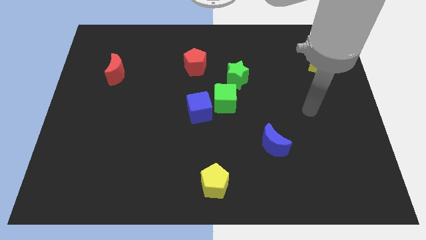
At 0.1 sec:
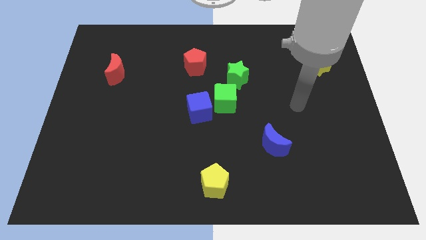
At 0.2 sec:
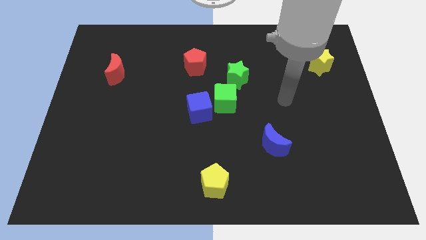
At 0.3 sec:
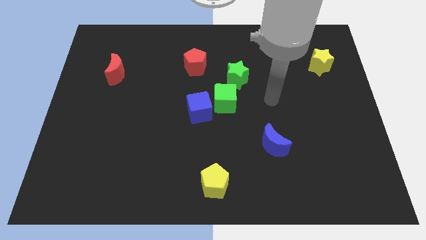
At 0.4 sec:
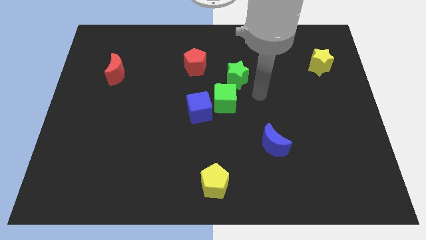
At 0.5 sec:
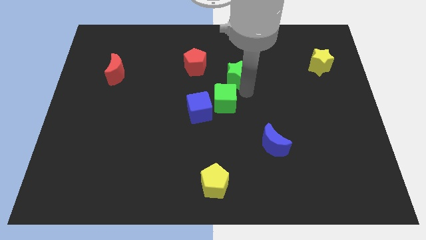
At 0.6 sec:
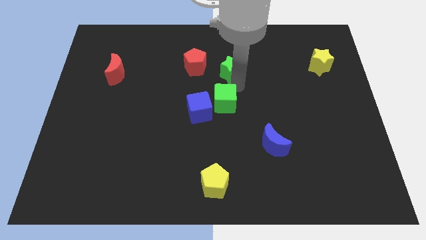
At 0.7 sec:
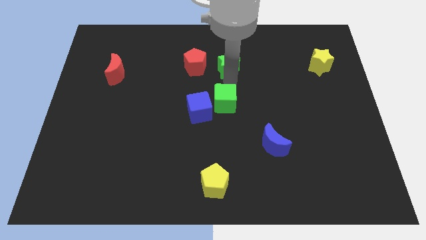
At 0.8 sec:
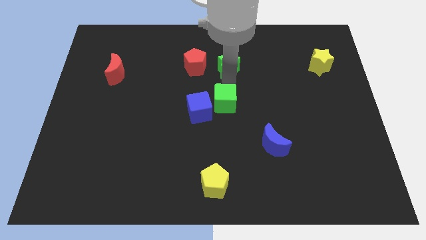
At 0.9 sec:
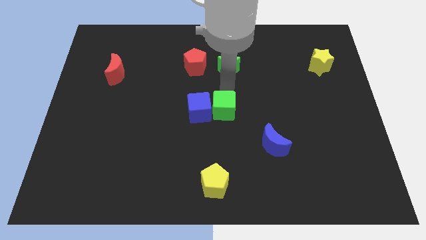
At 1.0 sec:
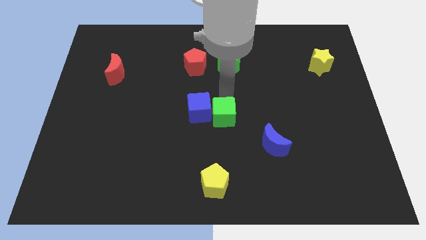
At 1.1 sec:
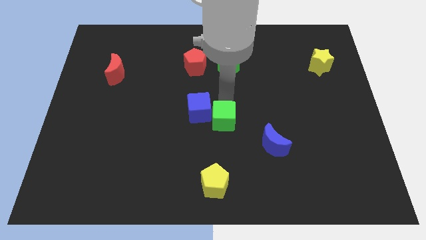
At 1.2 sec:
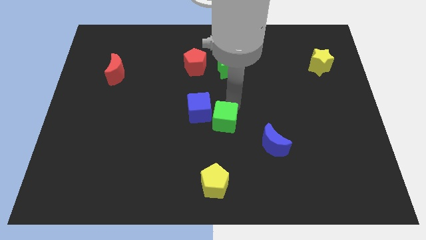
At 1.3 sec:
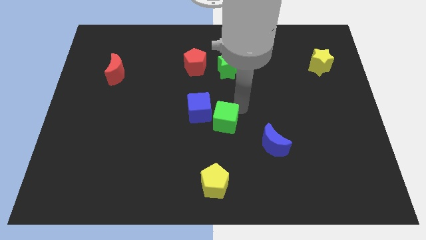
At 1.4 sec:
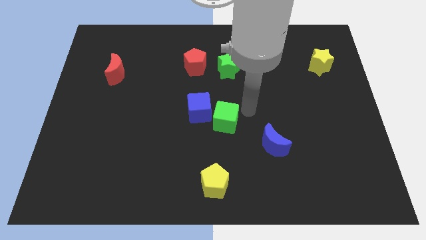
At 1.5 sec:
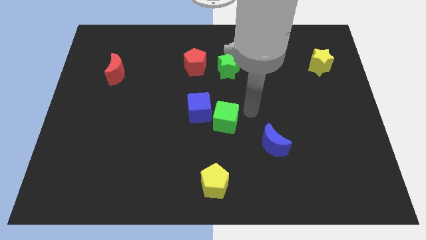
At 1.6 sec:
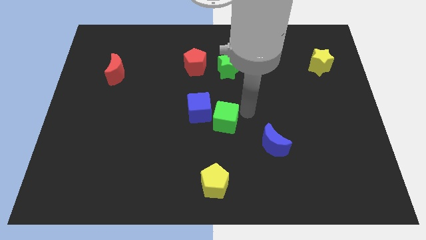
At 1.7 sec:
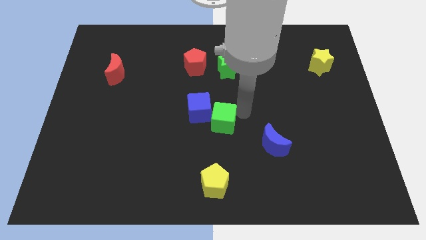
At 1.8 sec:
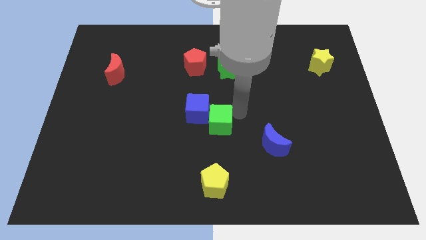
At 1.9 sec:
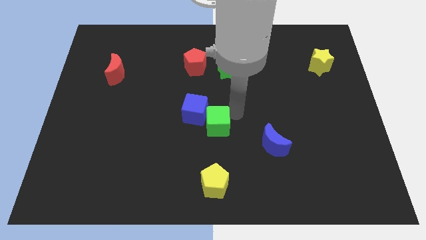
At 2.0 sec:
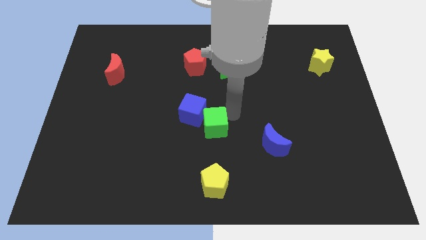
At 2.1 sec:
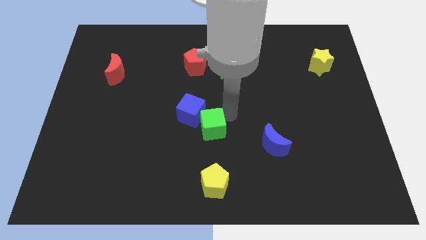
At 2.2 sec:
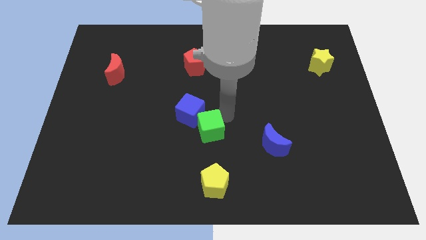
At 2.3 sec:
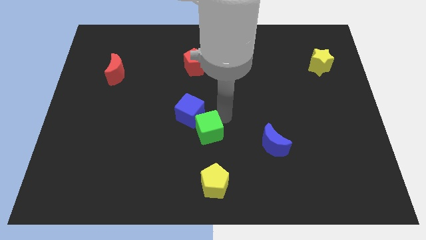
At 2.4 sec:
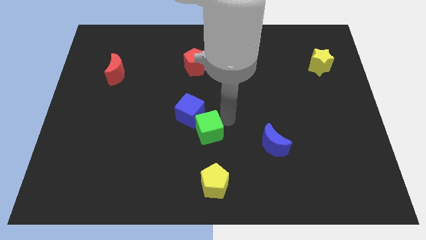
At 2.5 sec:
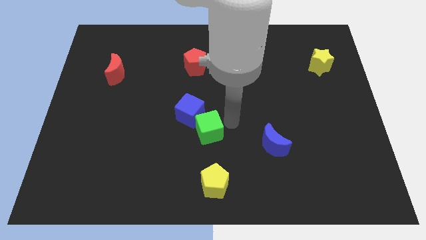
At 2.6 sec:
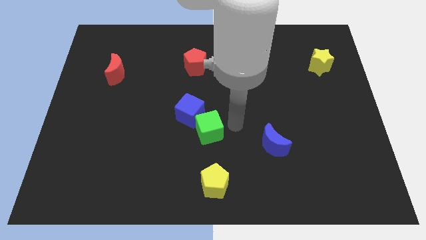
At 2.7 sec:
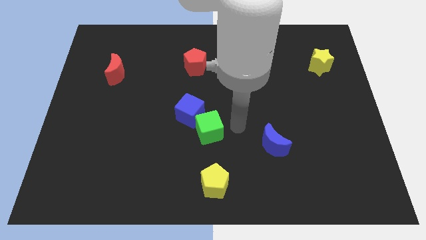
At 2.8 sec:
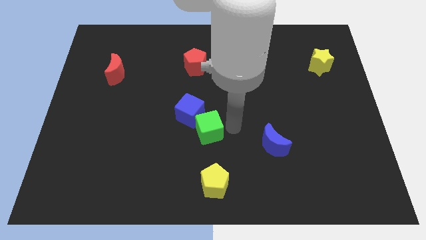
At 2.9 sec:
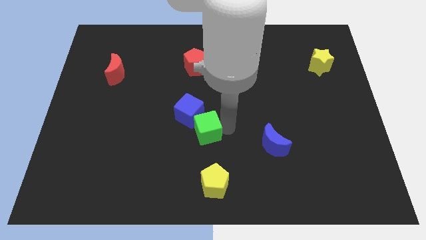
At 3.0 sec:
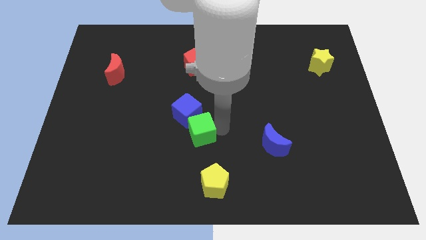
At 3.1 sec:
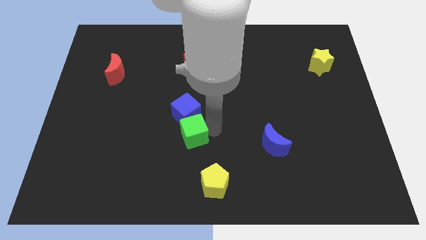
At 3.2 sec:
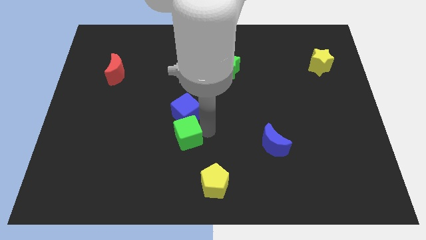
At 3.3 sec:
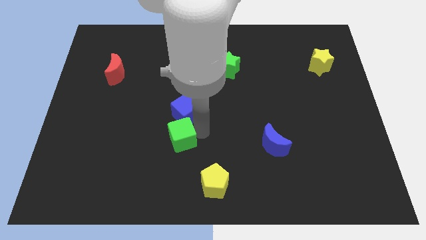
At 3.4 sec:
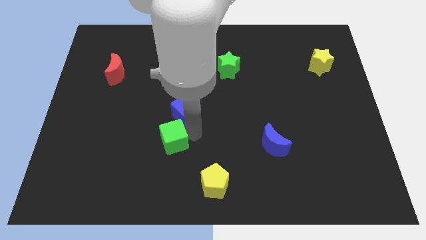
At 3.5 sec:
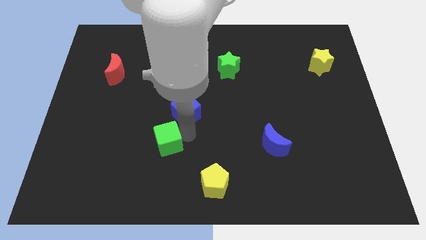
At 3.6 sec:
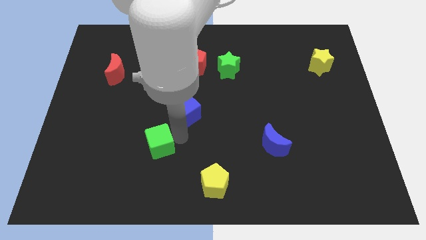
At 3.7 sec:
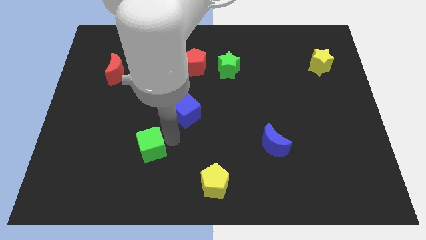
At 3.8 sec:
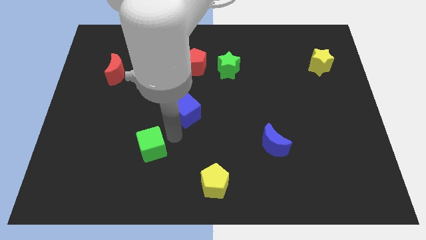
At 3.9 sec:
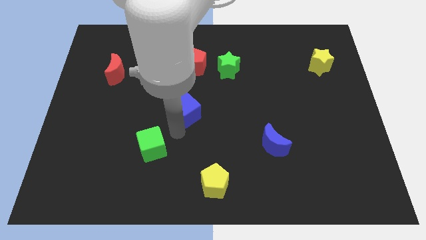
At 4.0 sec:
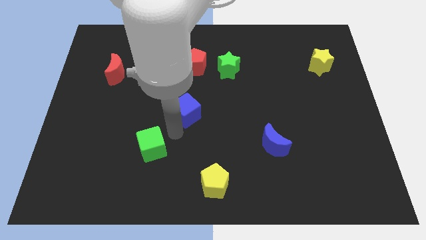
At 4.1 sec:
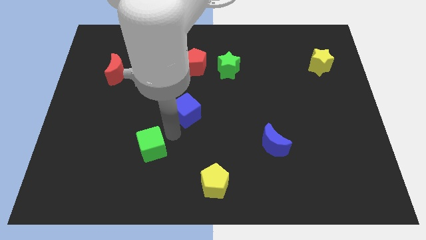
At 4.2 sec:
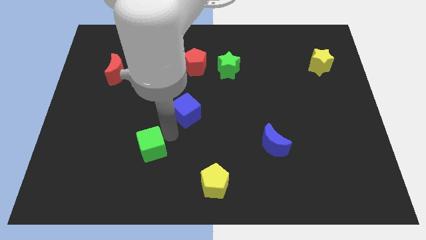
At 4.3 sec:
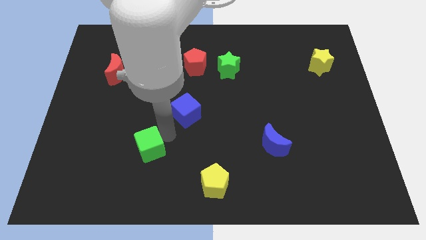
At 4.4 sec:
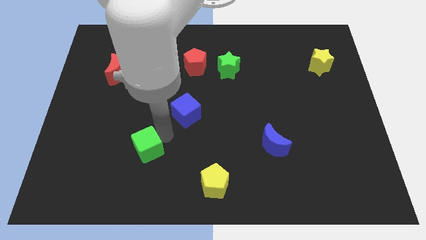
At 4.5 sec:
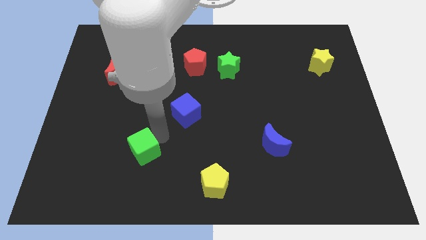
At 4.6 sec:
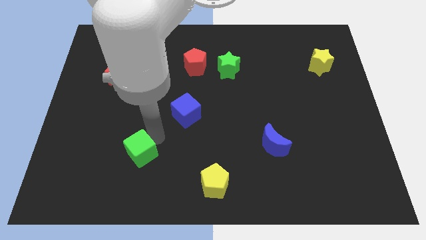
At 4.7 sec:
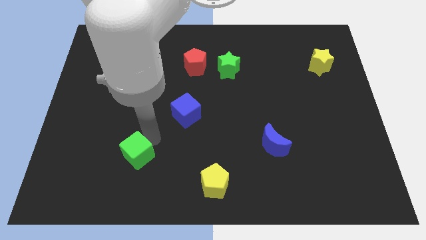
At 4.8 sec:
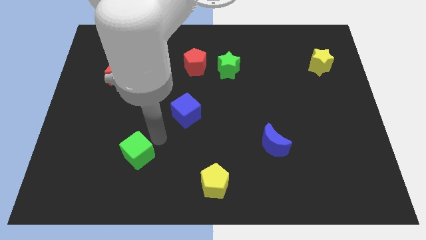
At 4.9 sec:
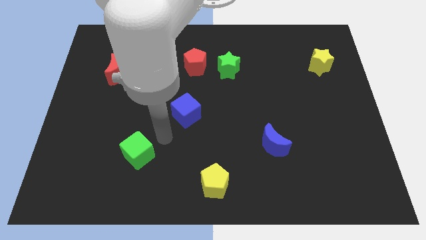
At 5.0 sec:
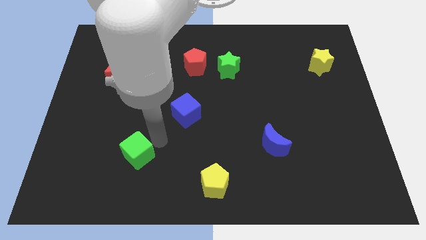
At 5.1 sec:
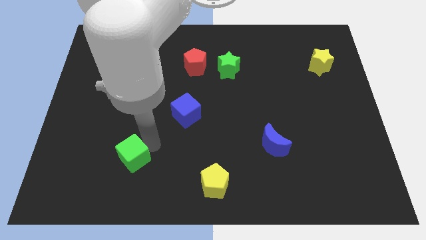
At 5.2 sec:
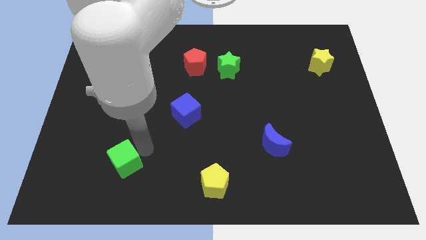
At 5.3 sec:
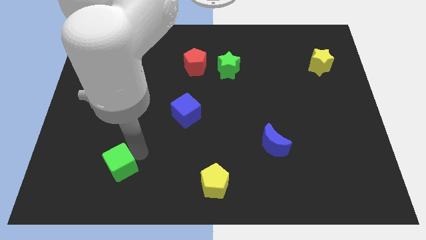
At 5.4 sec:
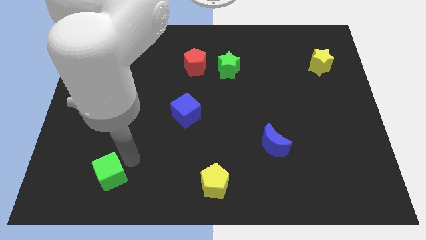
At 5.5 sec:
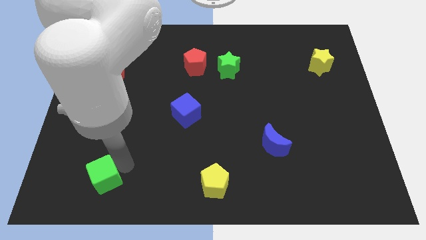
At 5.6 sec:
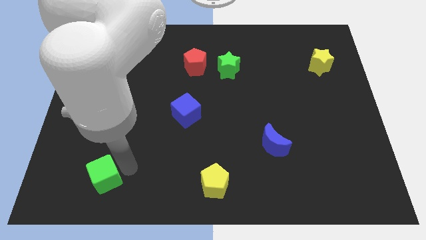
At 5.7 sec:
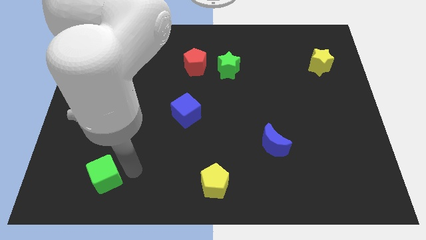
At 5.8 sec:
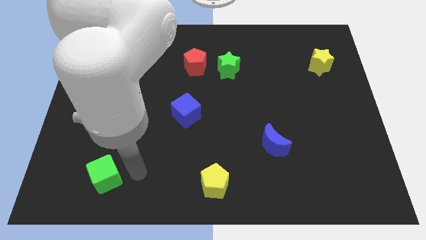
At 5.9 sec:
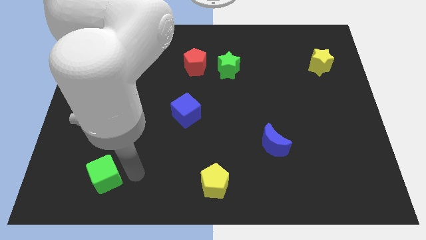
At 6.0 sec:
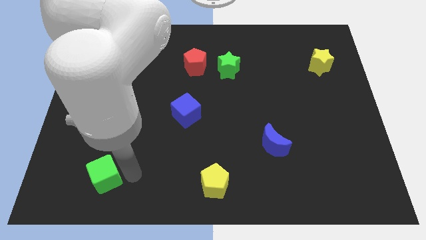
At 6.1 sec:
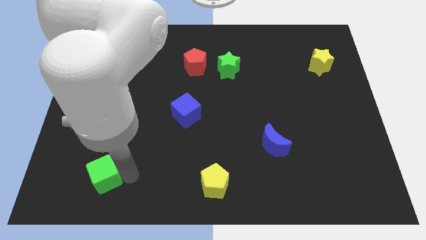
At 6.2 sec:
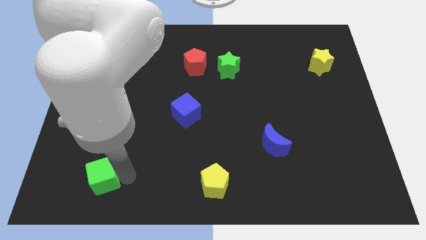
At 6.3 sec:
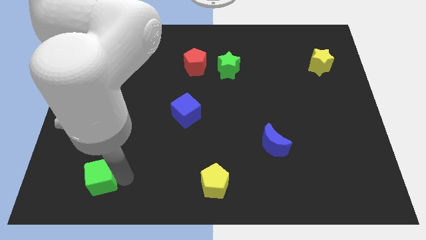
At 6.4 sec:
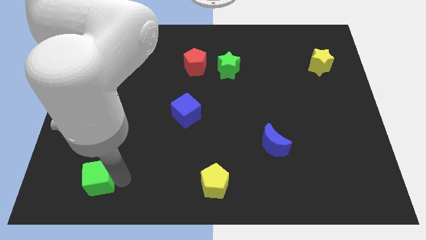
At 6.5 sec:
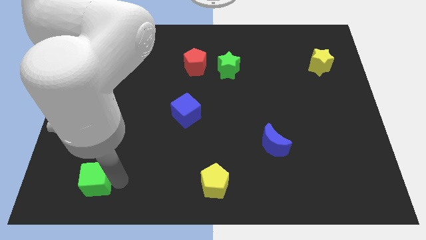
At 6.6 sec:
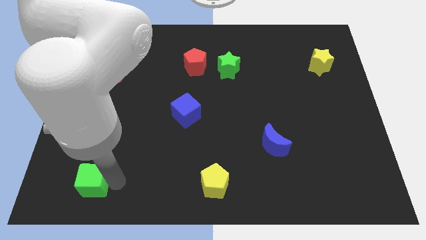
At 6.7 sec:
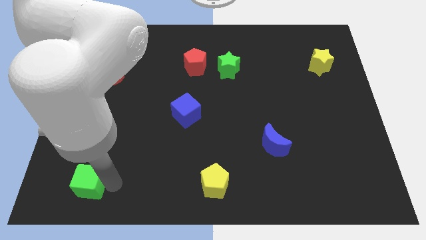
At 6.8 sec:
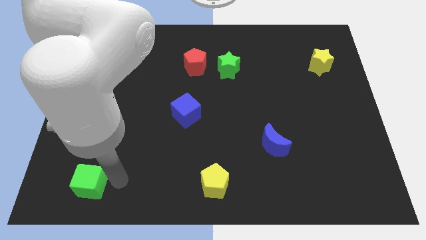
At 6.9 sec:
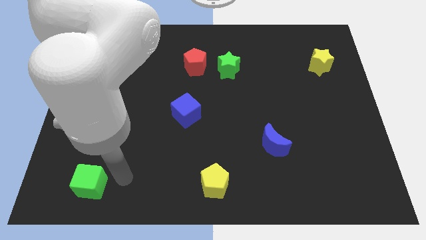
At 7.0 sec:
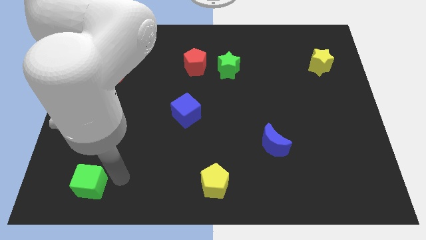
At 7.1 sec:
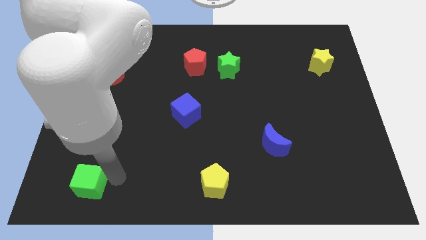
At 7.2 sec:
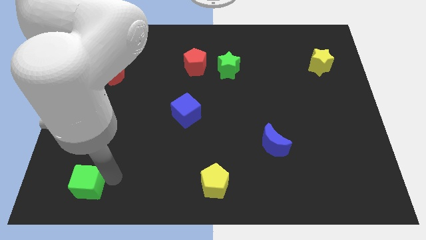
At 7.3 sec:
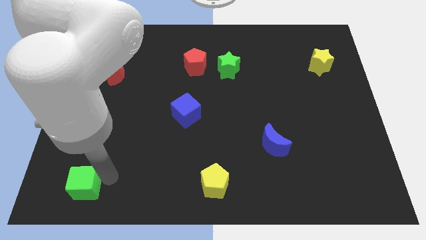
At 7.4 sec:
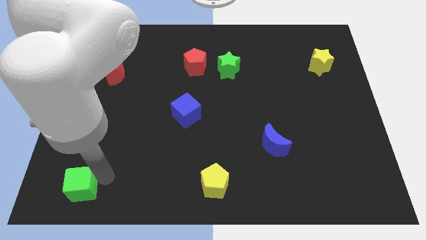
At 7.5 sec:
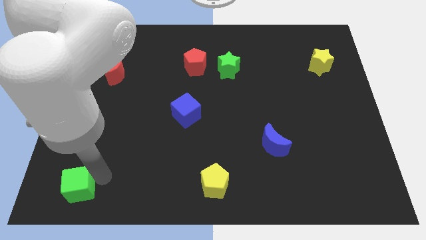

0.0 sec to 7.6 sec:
push the green cube to the lower left corner
